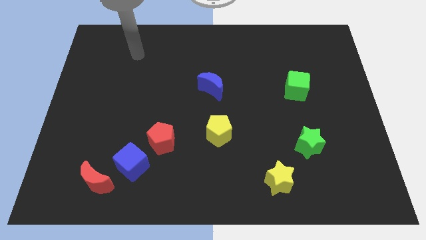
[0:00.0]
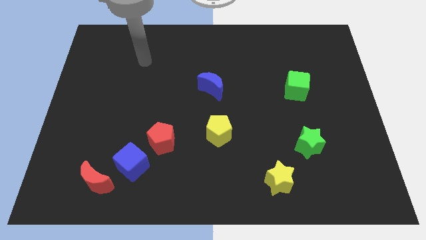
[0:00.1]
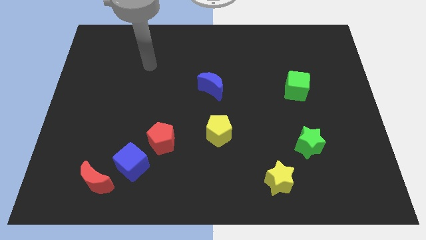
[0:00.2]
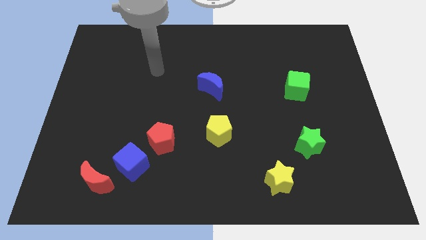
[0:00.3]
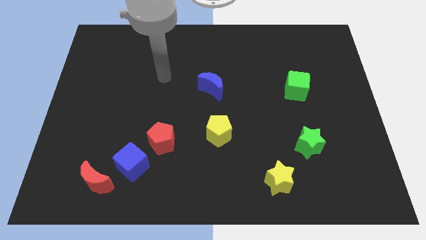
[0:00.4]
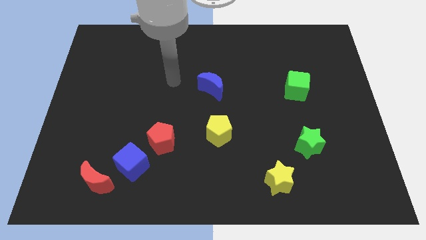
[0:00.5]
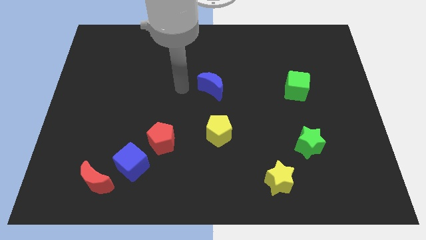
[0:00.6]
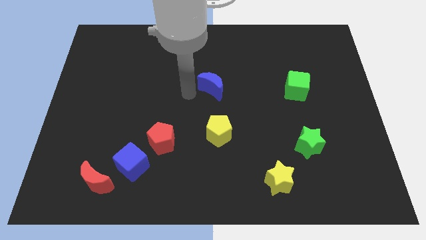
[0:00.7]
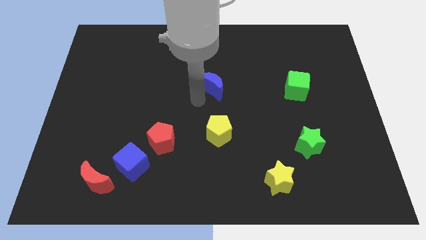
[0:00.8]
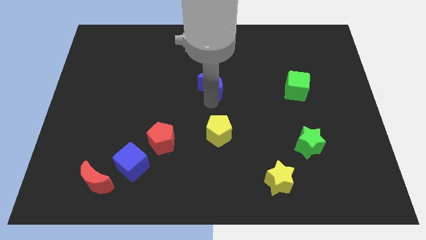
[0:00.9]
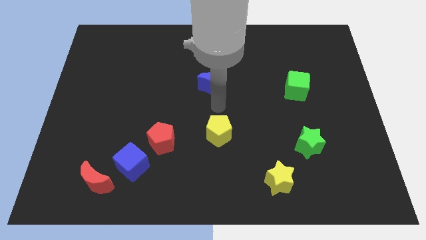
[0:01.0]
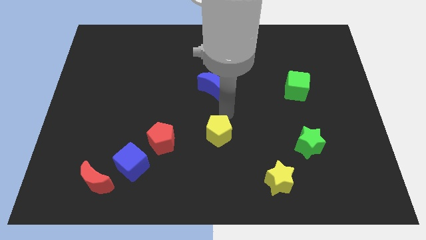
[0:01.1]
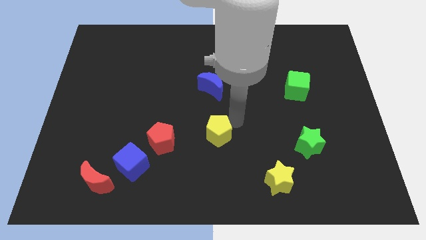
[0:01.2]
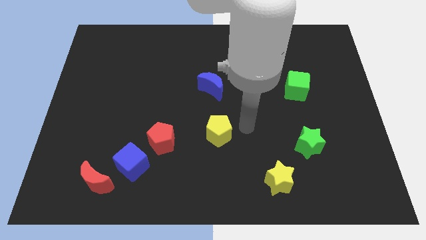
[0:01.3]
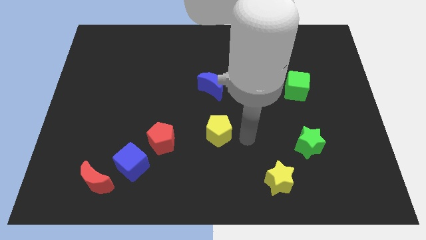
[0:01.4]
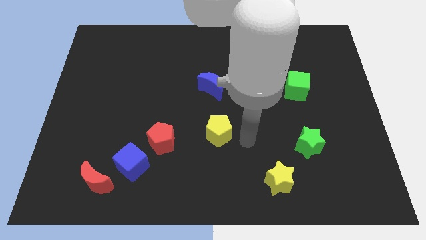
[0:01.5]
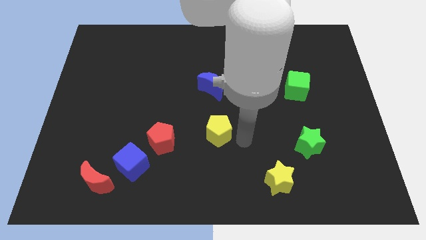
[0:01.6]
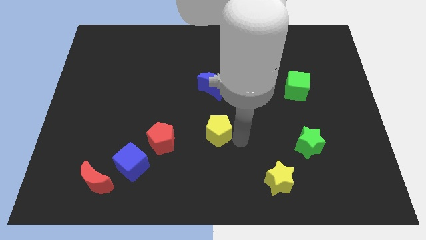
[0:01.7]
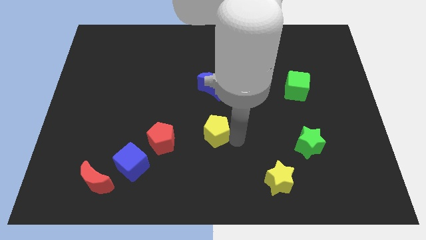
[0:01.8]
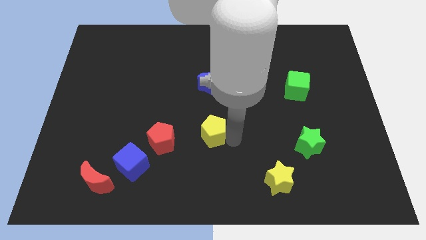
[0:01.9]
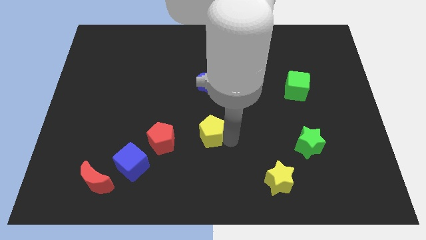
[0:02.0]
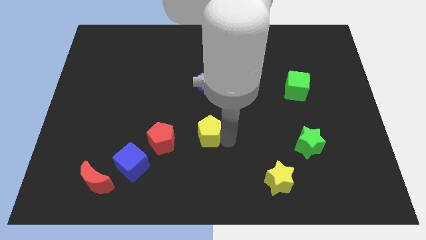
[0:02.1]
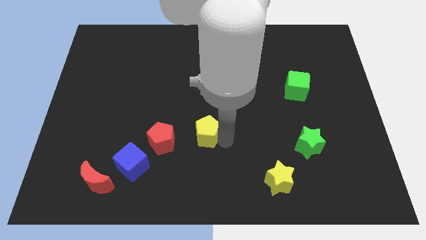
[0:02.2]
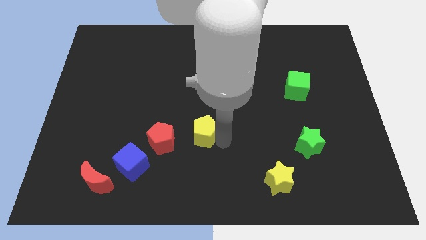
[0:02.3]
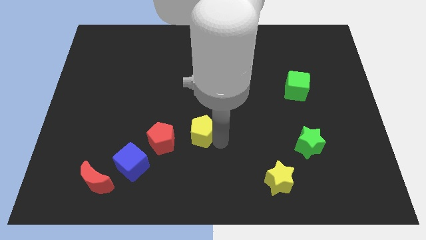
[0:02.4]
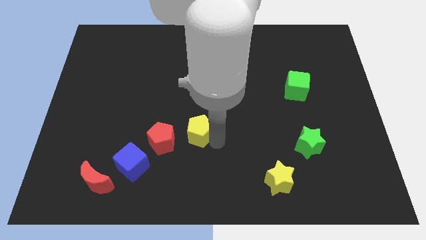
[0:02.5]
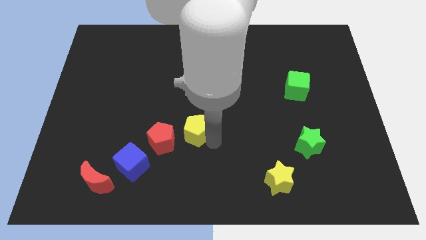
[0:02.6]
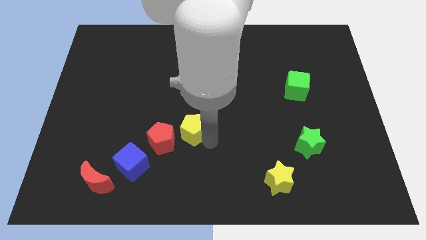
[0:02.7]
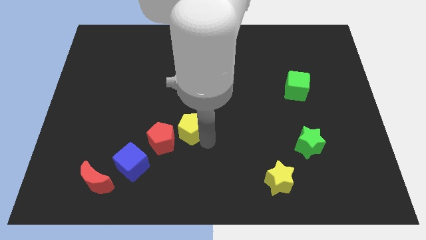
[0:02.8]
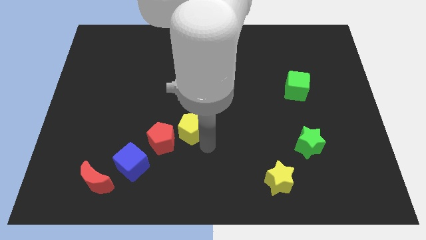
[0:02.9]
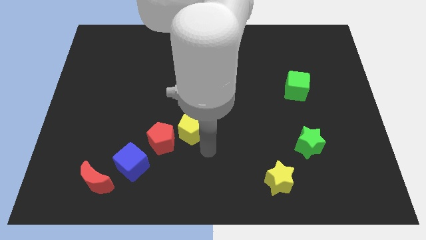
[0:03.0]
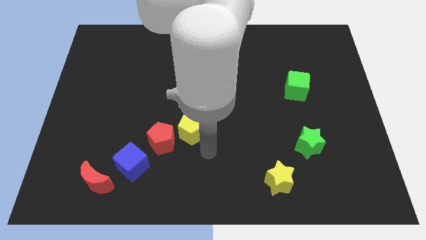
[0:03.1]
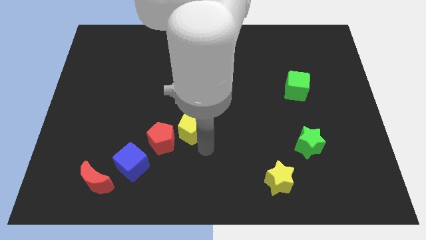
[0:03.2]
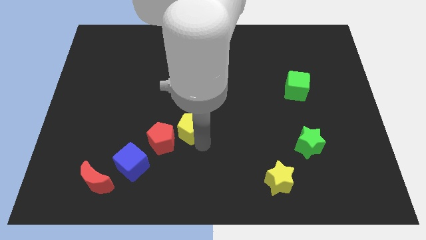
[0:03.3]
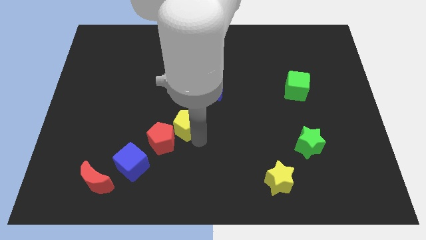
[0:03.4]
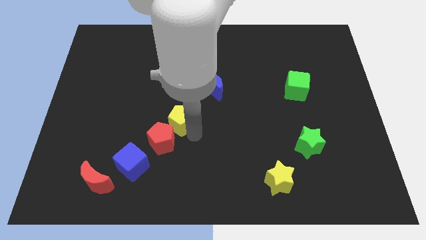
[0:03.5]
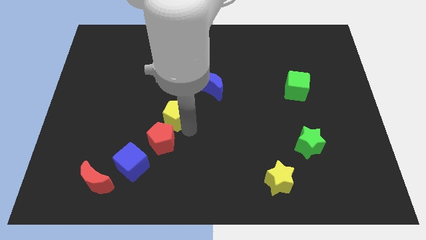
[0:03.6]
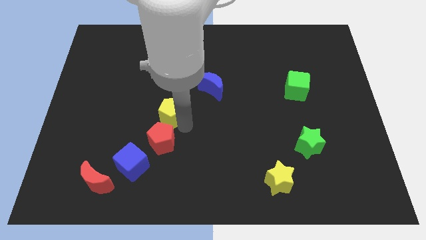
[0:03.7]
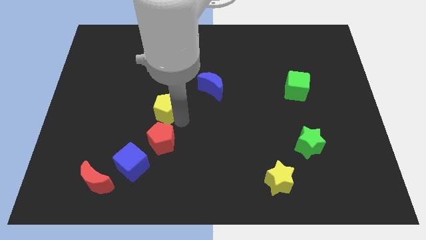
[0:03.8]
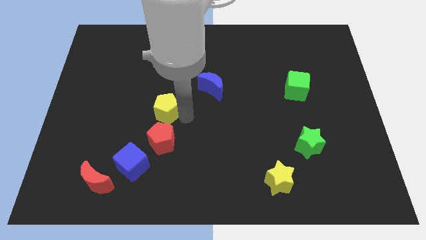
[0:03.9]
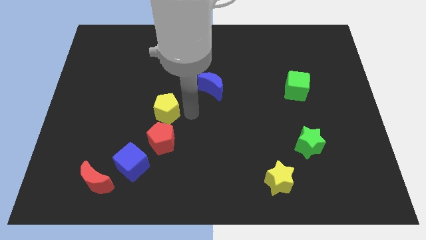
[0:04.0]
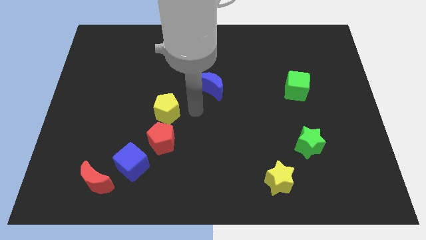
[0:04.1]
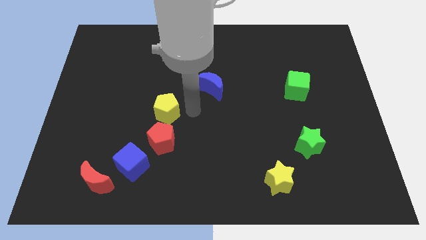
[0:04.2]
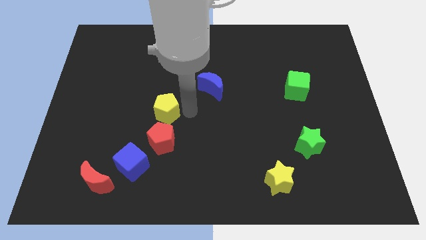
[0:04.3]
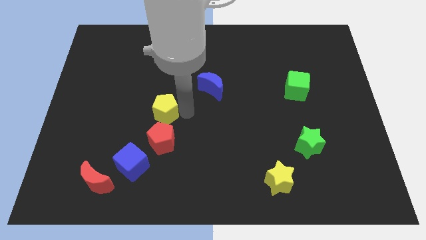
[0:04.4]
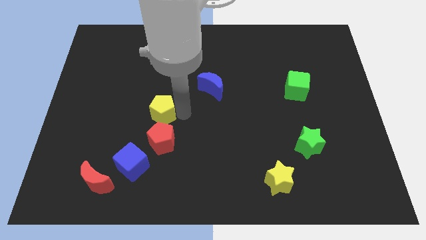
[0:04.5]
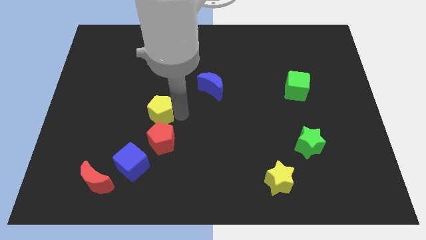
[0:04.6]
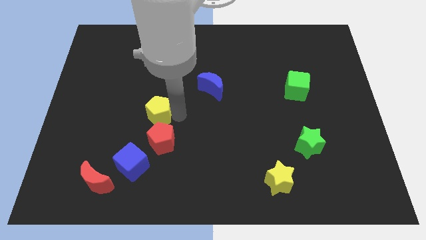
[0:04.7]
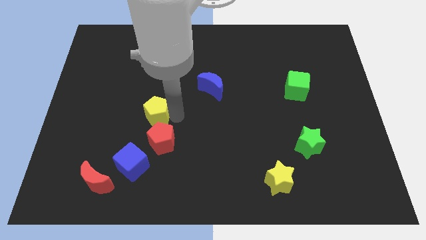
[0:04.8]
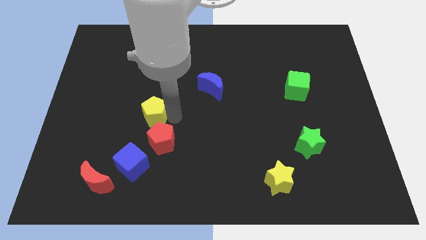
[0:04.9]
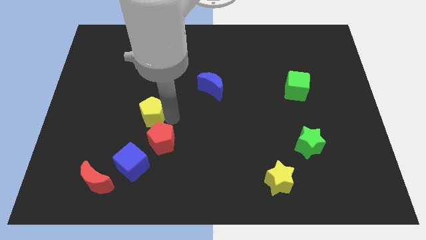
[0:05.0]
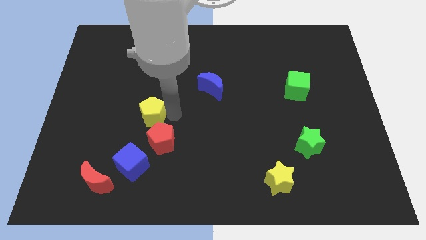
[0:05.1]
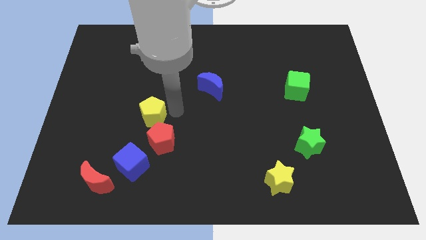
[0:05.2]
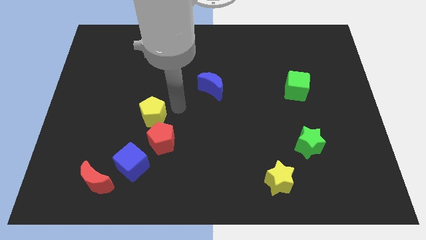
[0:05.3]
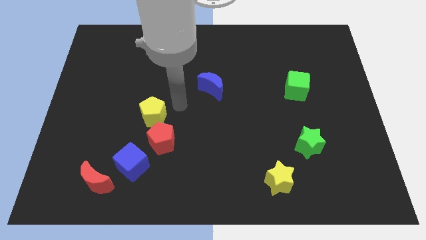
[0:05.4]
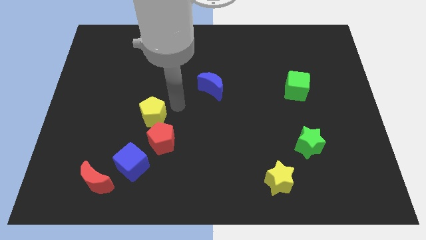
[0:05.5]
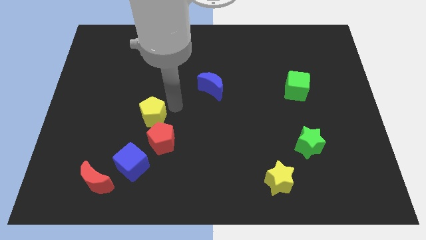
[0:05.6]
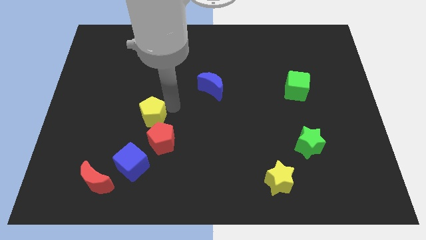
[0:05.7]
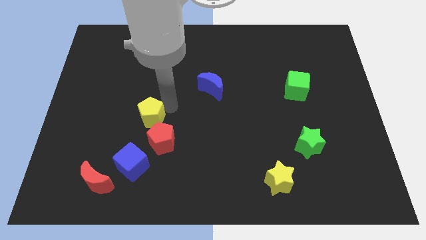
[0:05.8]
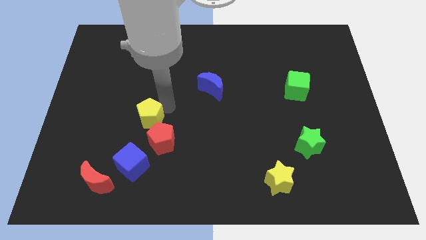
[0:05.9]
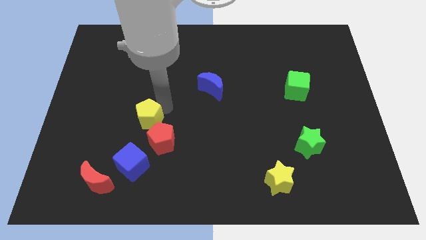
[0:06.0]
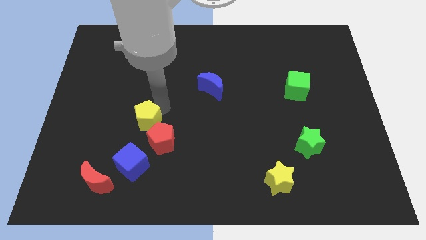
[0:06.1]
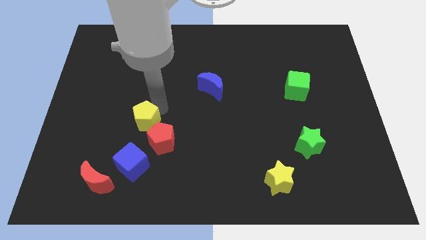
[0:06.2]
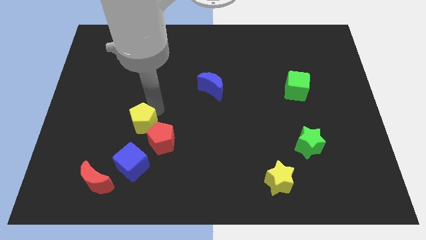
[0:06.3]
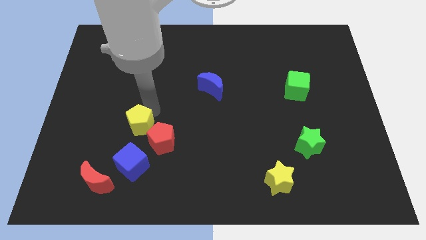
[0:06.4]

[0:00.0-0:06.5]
push the yellow pentagon to the left side of the red pentagon

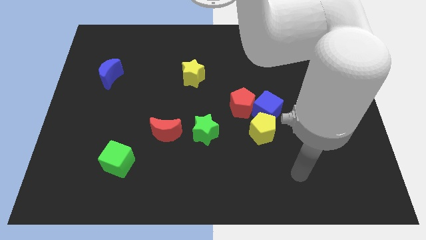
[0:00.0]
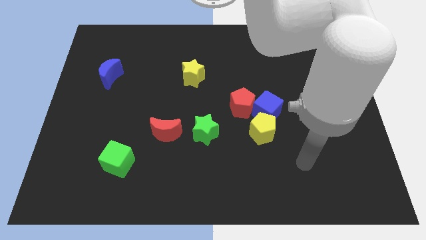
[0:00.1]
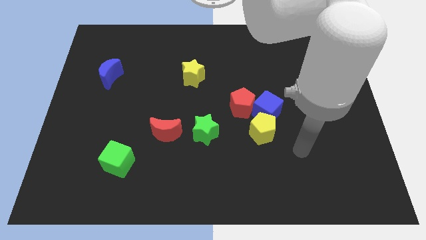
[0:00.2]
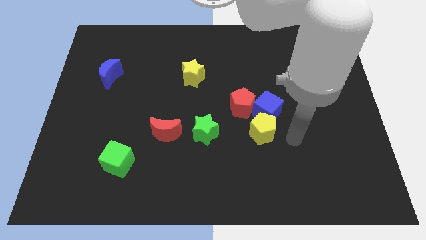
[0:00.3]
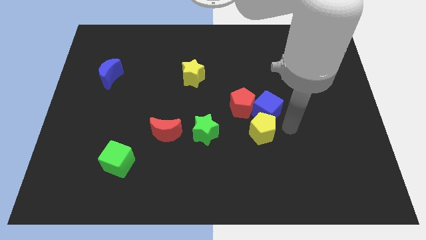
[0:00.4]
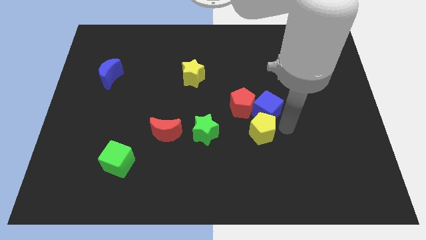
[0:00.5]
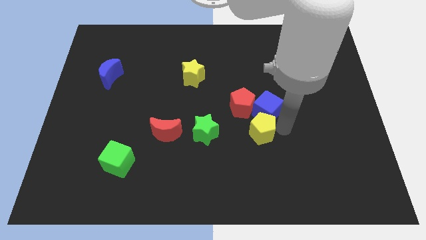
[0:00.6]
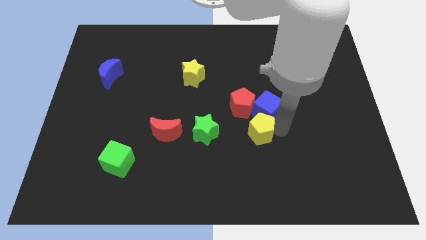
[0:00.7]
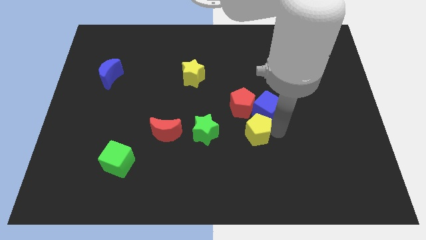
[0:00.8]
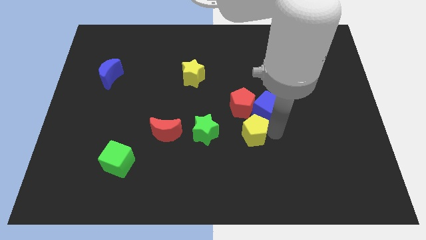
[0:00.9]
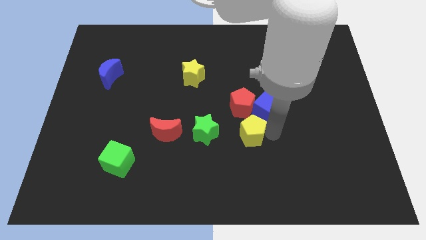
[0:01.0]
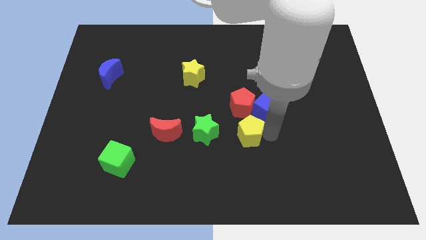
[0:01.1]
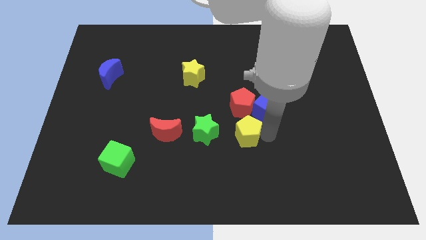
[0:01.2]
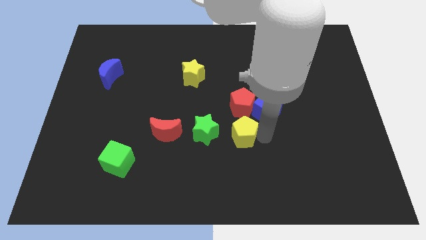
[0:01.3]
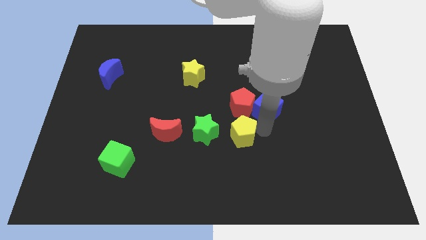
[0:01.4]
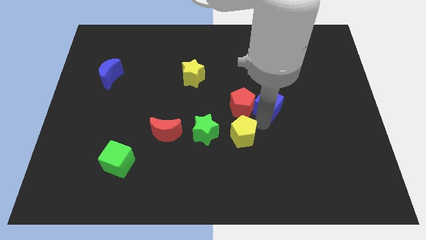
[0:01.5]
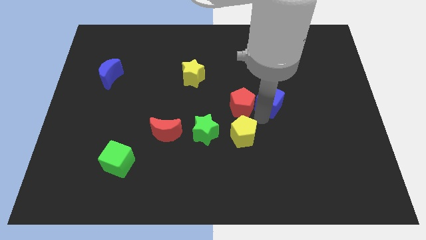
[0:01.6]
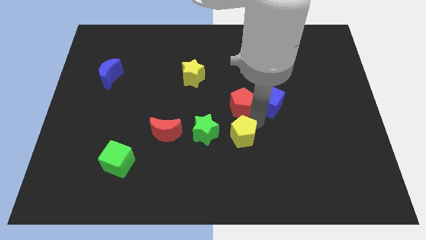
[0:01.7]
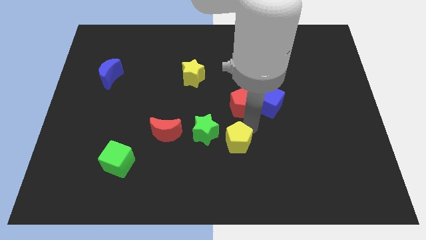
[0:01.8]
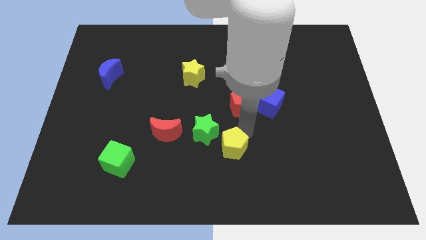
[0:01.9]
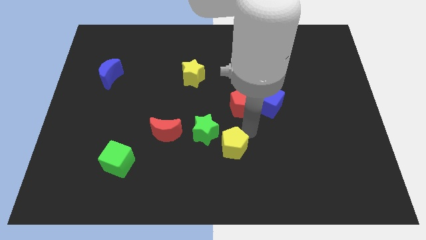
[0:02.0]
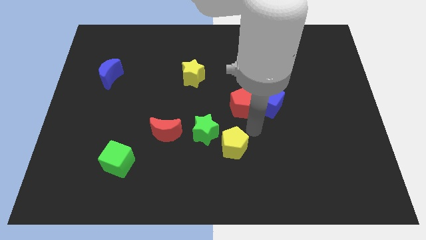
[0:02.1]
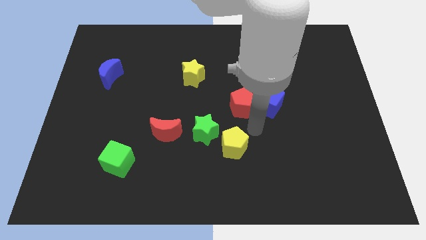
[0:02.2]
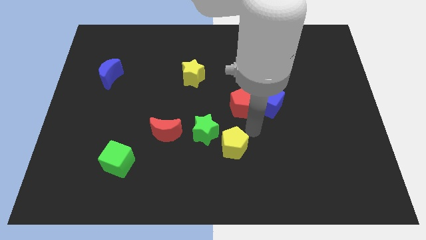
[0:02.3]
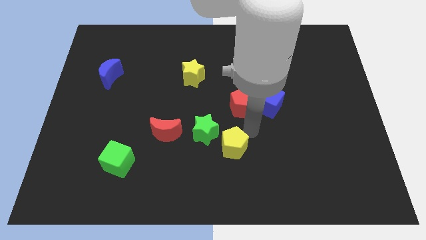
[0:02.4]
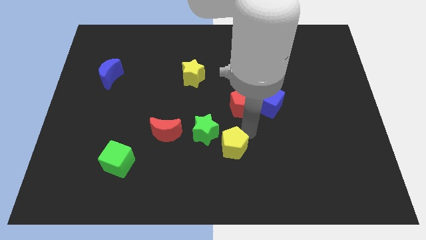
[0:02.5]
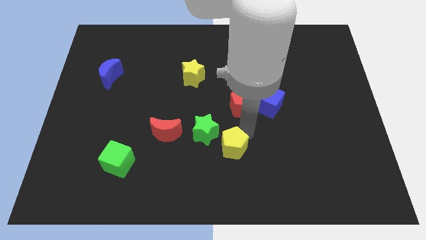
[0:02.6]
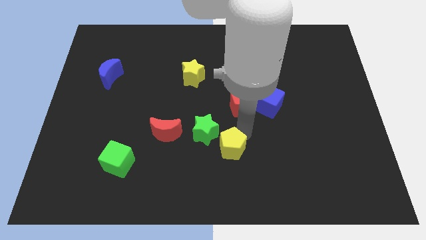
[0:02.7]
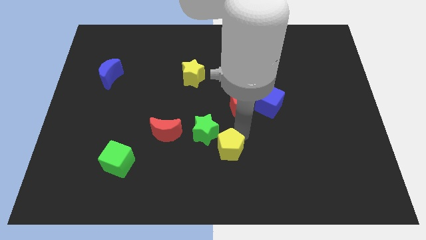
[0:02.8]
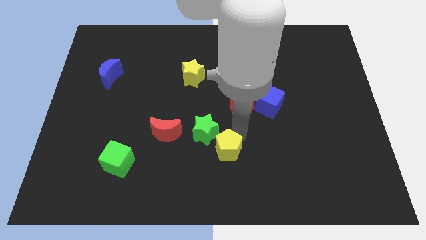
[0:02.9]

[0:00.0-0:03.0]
move the yellow pentagon below the green star
